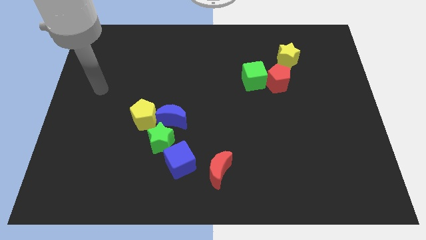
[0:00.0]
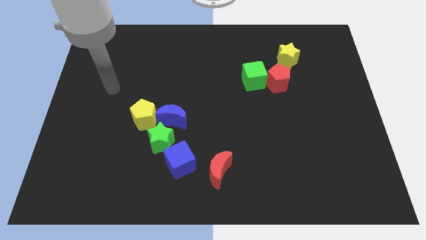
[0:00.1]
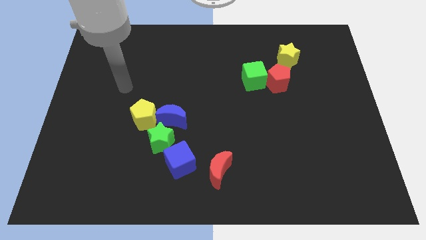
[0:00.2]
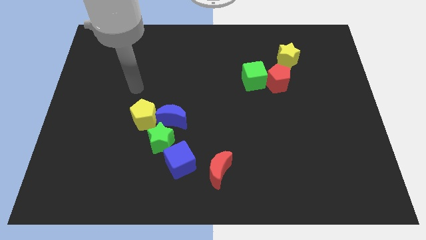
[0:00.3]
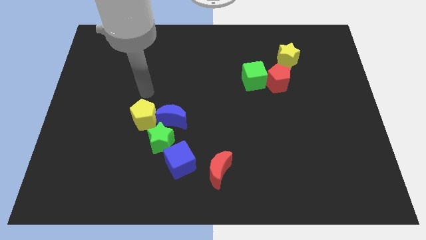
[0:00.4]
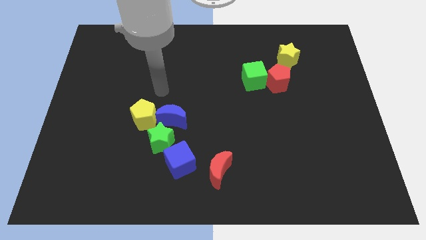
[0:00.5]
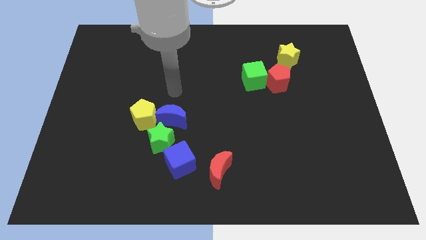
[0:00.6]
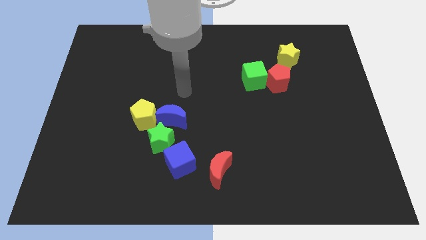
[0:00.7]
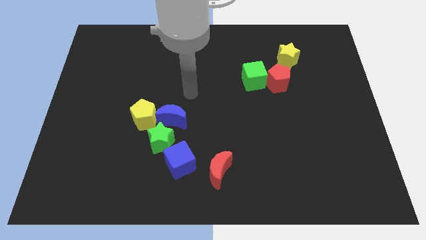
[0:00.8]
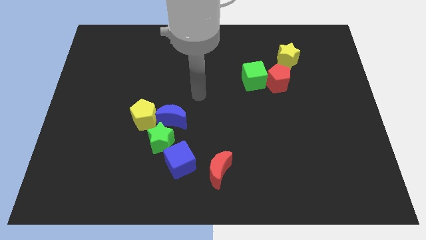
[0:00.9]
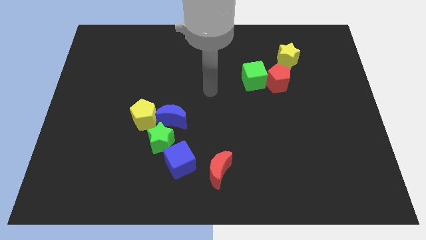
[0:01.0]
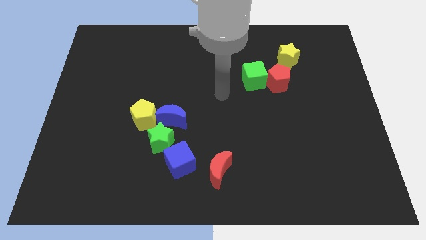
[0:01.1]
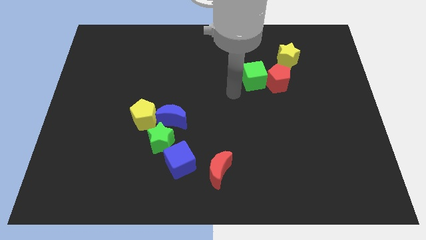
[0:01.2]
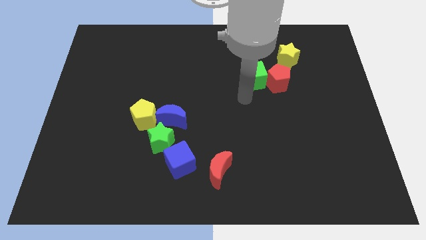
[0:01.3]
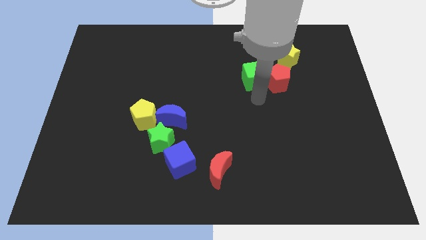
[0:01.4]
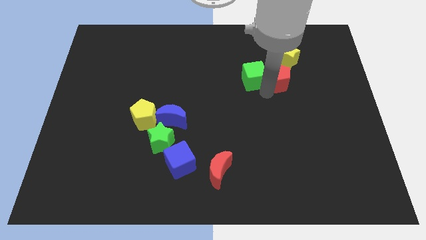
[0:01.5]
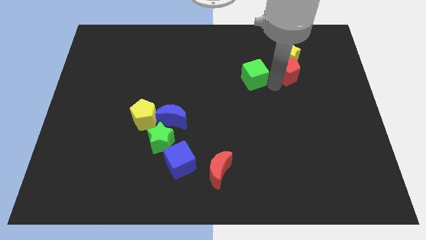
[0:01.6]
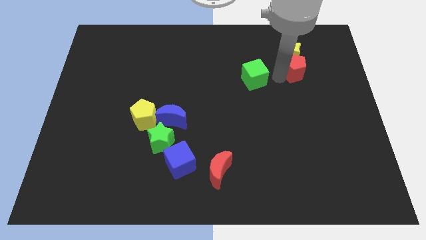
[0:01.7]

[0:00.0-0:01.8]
move the green cube away from the red pentagon

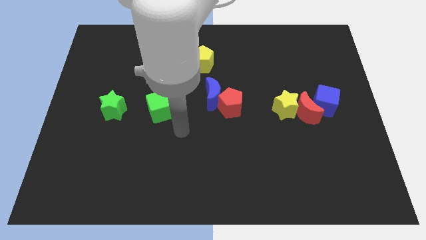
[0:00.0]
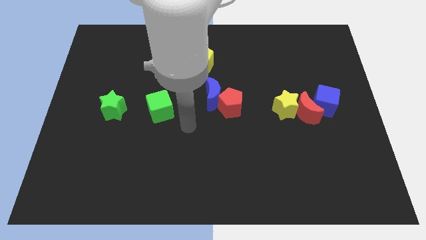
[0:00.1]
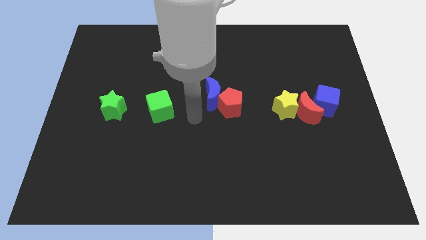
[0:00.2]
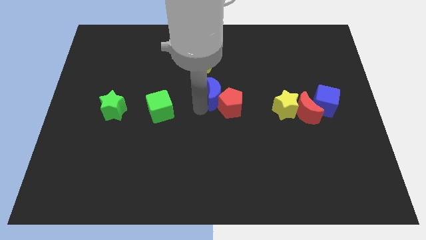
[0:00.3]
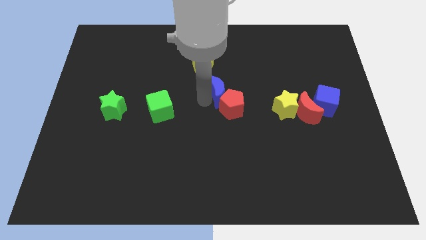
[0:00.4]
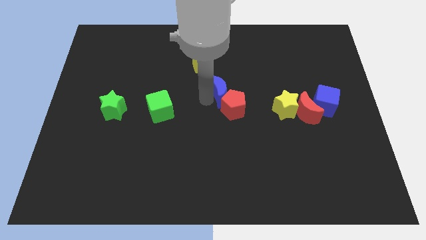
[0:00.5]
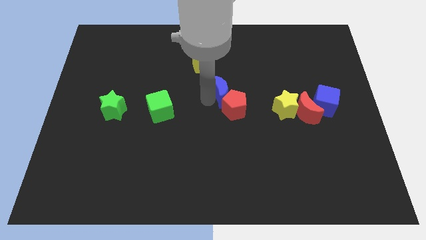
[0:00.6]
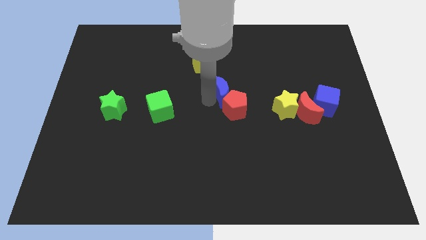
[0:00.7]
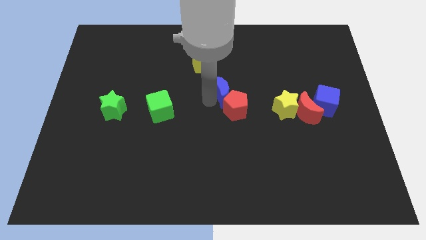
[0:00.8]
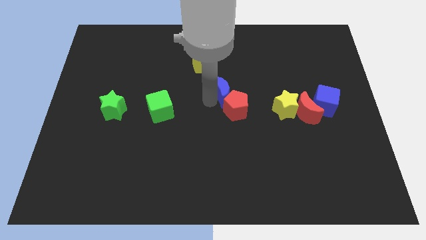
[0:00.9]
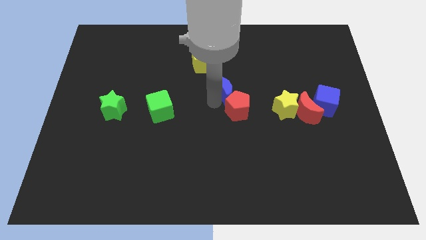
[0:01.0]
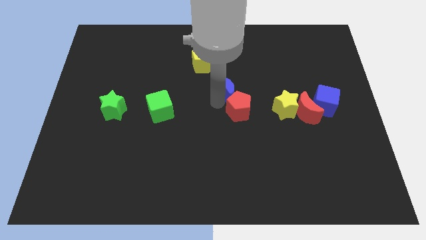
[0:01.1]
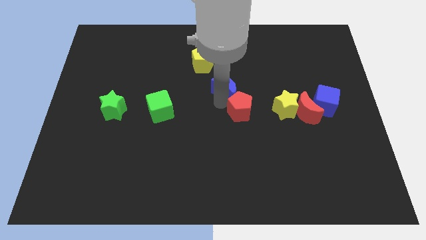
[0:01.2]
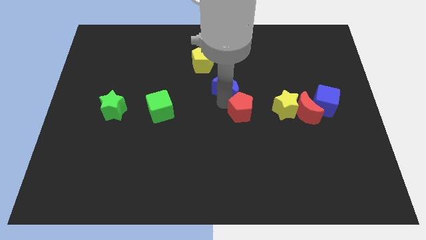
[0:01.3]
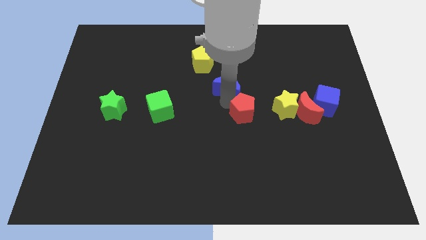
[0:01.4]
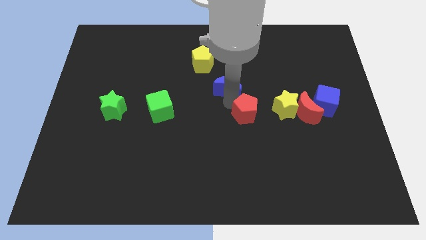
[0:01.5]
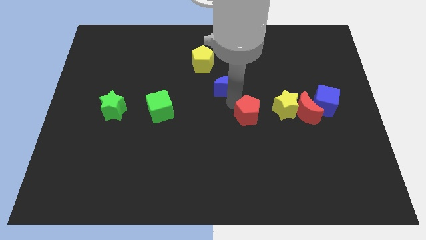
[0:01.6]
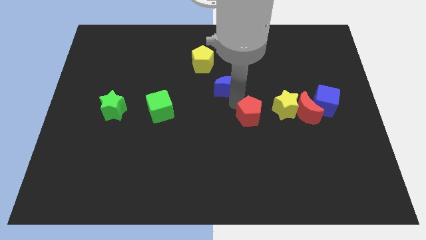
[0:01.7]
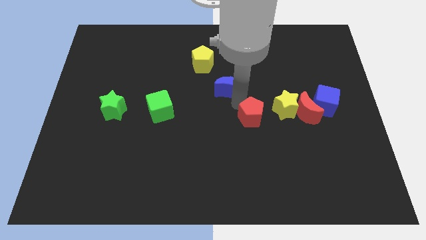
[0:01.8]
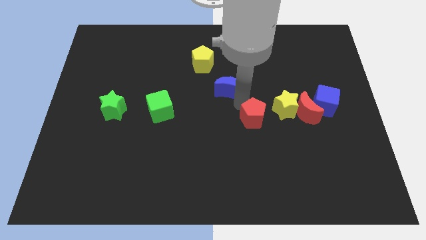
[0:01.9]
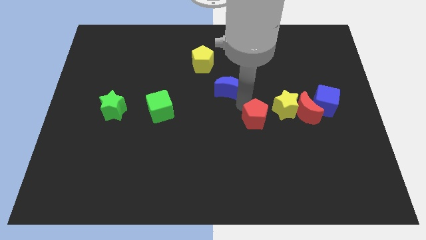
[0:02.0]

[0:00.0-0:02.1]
pull the red pentagon apart from the blue moon

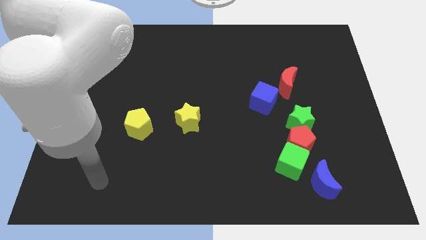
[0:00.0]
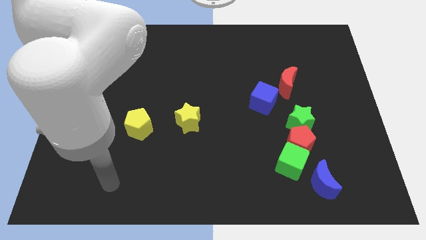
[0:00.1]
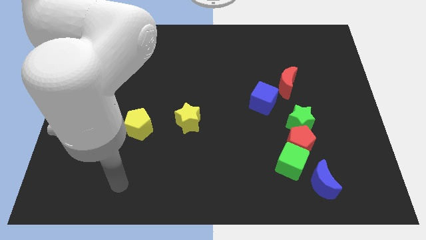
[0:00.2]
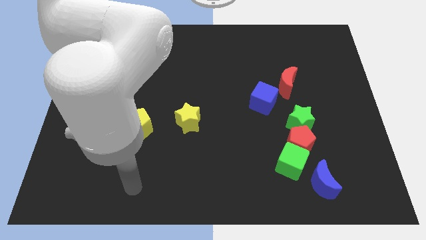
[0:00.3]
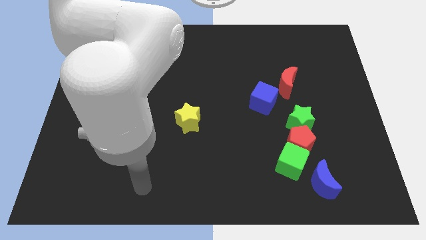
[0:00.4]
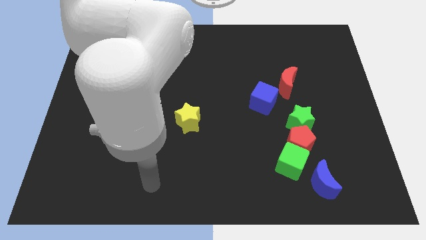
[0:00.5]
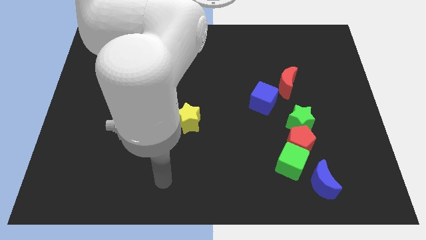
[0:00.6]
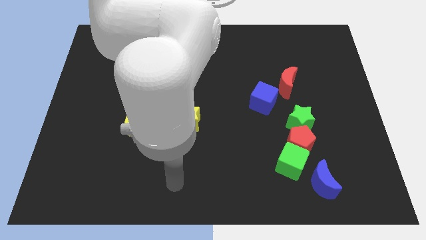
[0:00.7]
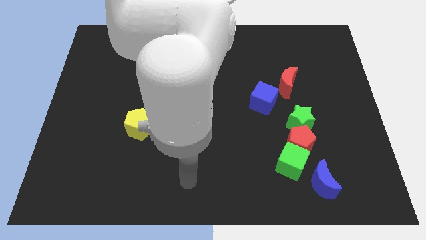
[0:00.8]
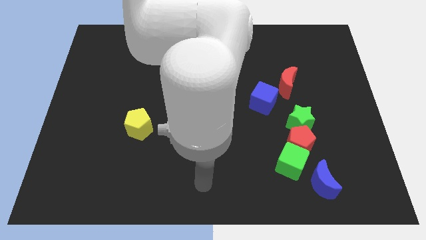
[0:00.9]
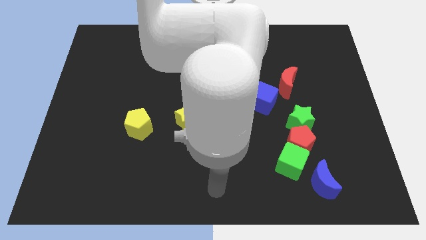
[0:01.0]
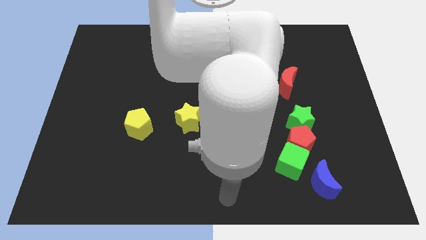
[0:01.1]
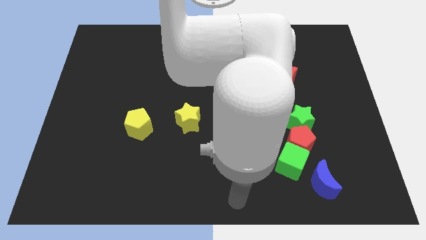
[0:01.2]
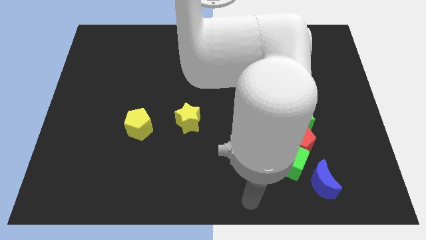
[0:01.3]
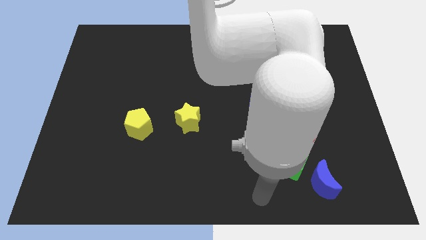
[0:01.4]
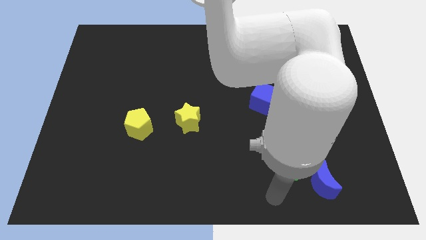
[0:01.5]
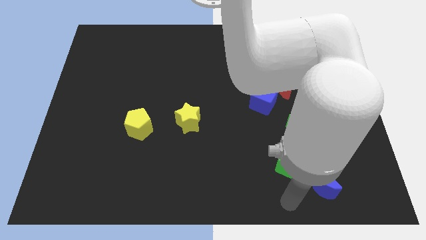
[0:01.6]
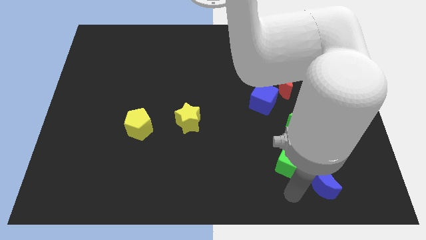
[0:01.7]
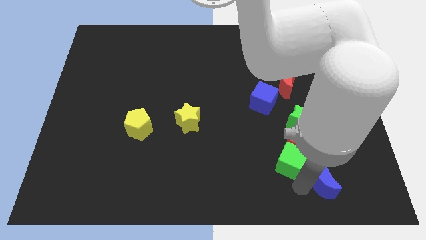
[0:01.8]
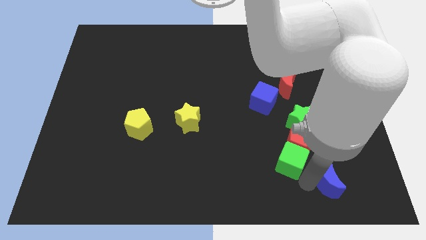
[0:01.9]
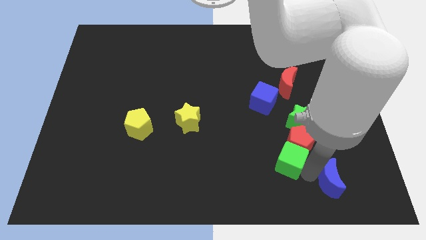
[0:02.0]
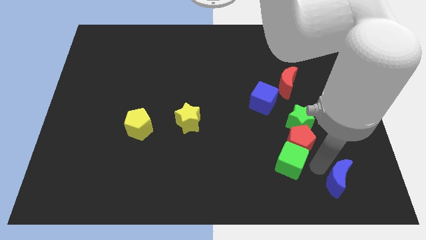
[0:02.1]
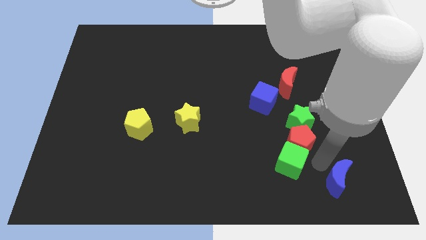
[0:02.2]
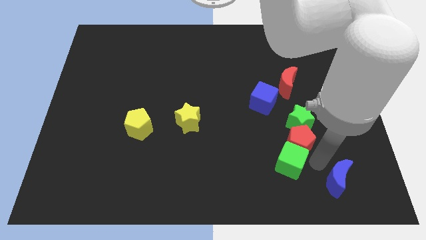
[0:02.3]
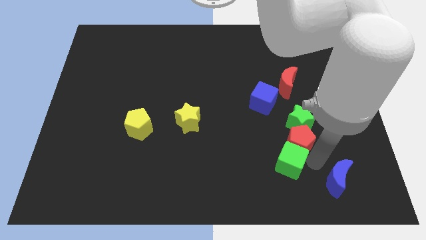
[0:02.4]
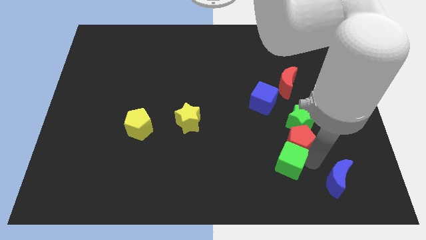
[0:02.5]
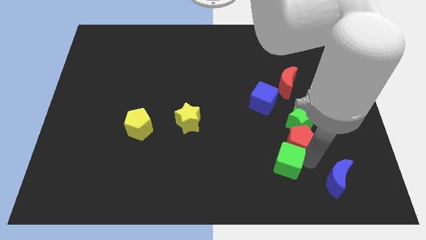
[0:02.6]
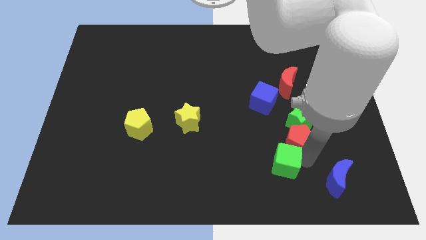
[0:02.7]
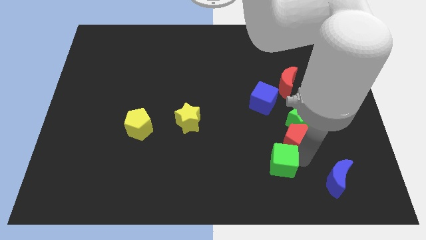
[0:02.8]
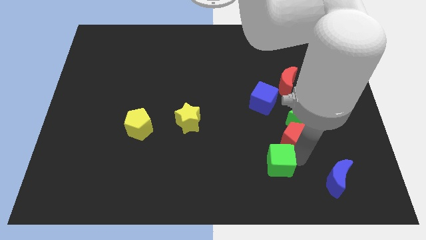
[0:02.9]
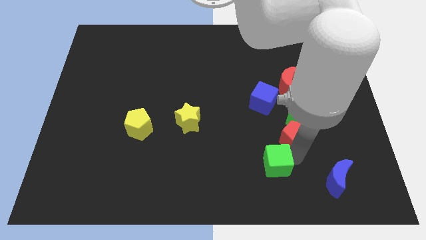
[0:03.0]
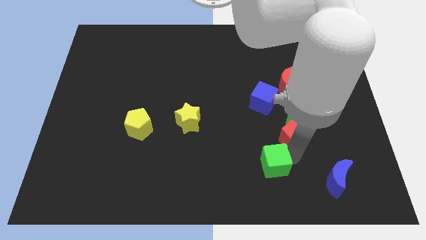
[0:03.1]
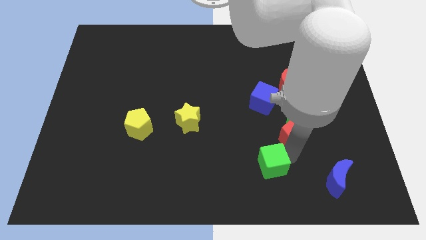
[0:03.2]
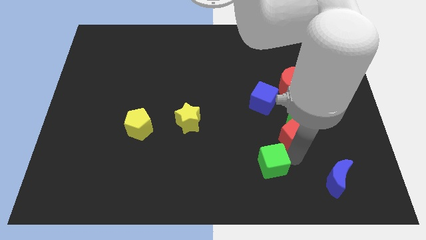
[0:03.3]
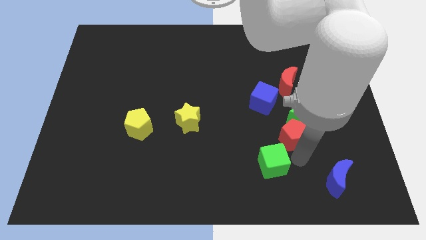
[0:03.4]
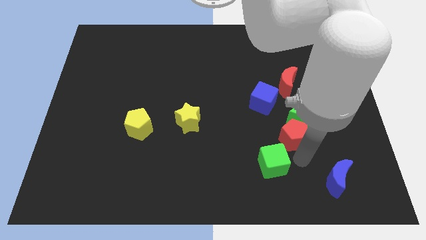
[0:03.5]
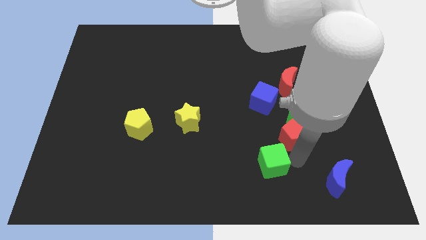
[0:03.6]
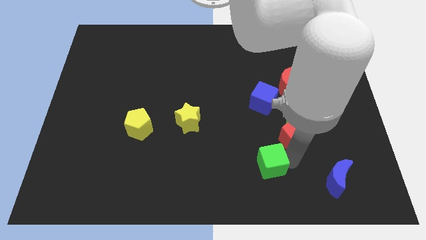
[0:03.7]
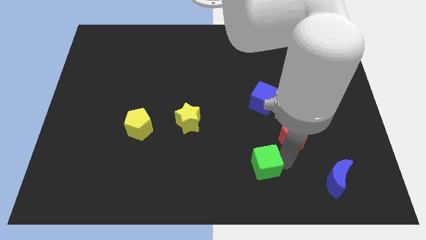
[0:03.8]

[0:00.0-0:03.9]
separate the green cube from the red pentagon and blue moon

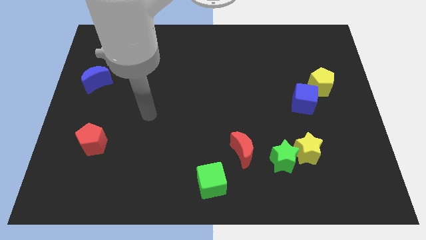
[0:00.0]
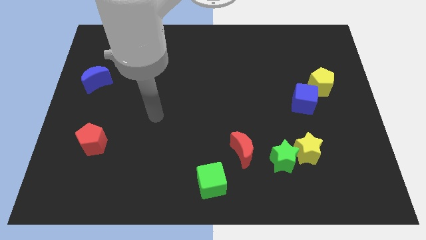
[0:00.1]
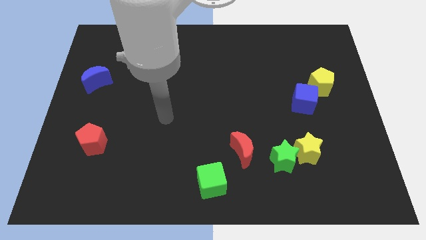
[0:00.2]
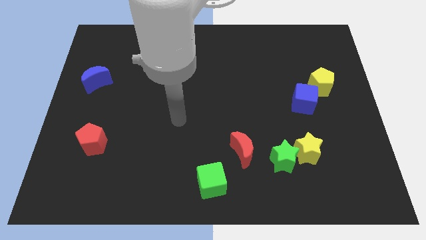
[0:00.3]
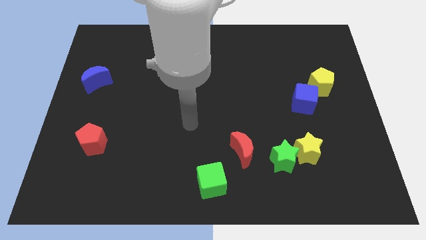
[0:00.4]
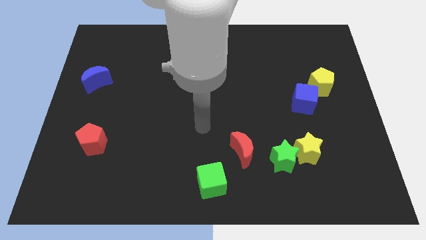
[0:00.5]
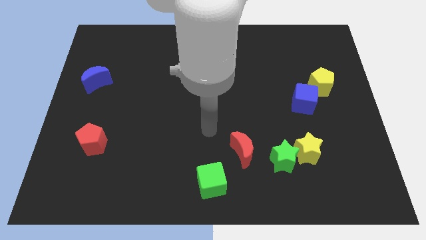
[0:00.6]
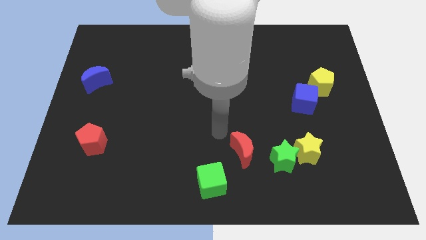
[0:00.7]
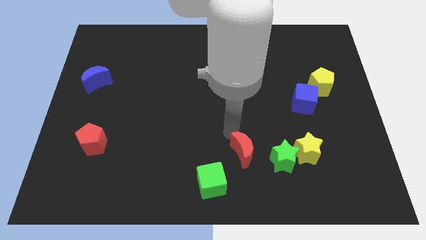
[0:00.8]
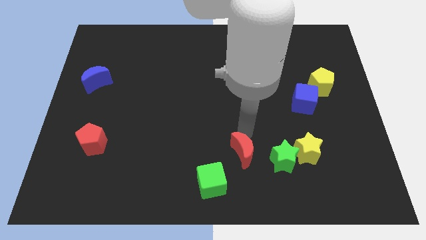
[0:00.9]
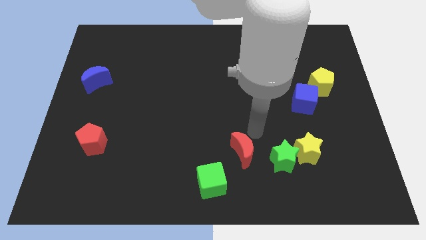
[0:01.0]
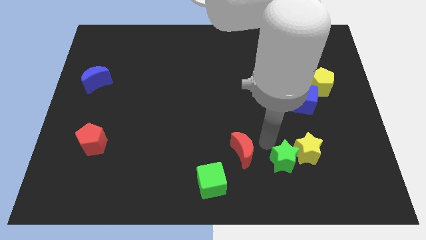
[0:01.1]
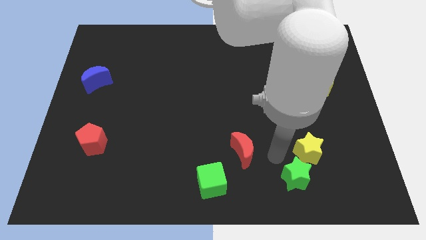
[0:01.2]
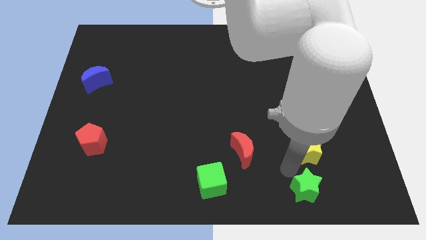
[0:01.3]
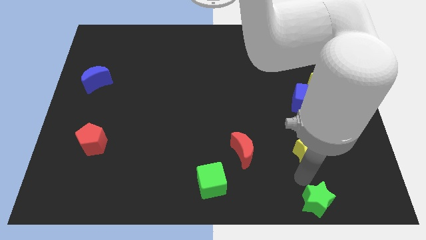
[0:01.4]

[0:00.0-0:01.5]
separate the yellow star from the green star
